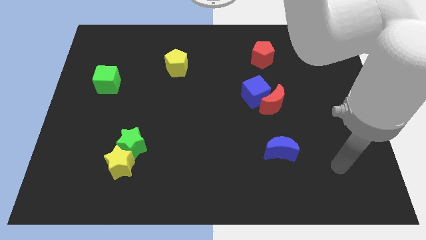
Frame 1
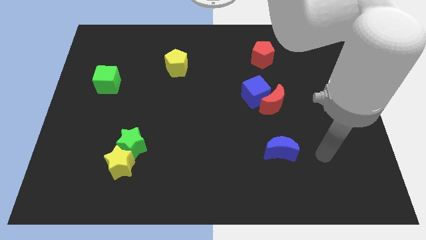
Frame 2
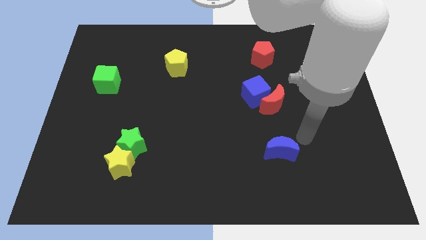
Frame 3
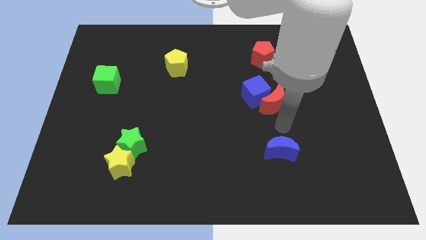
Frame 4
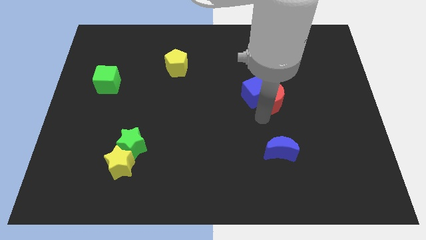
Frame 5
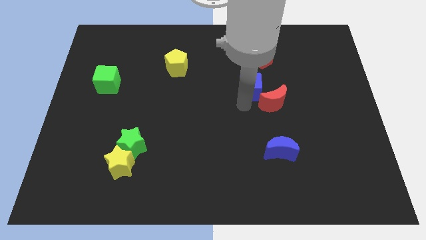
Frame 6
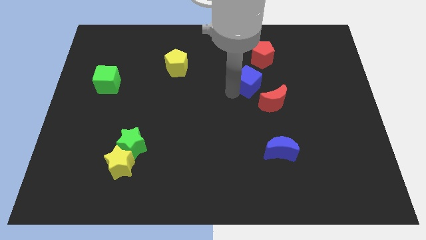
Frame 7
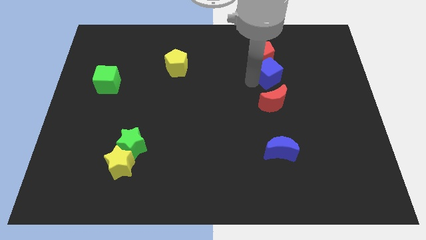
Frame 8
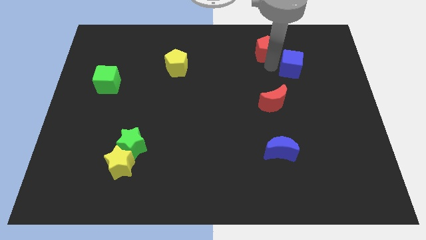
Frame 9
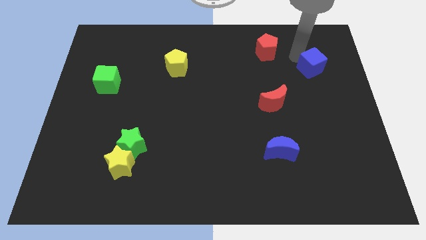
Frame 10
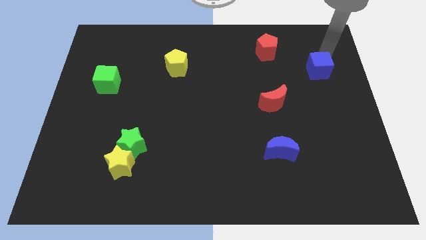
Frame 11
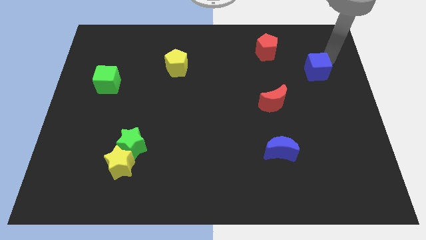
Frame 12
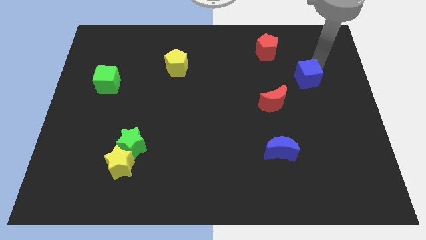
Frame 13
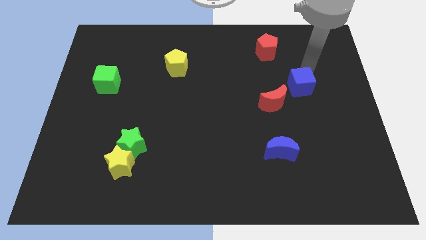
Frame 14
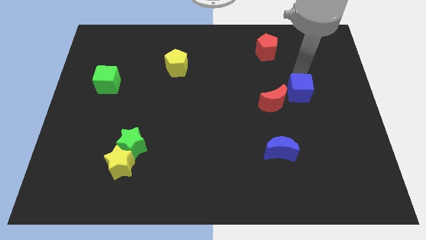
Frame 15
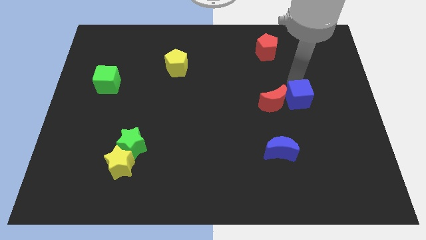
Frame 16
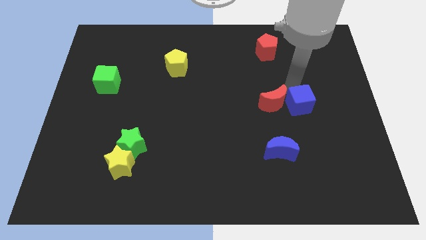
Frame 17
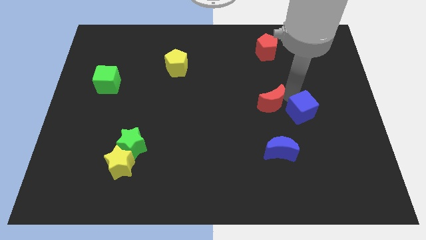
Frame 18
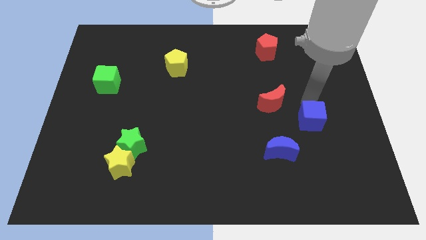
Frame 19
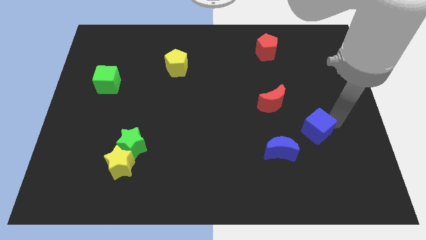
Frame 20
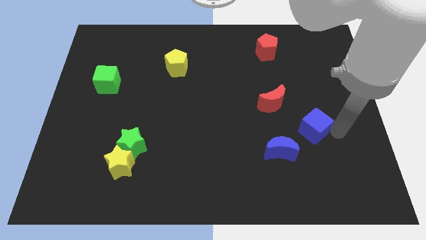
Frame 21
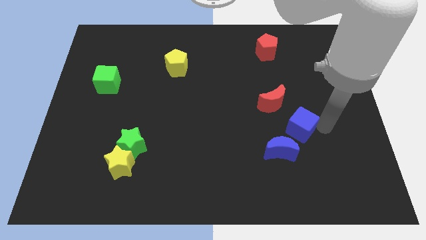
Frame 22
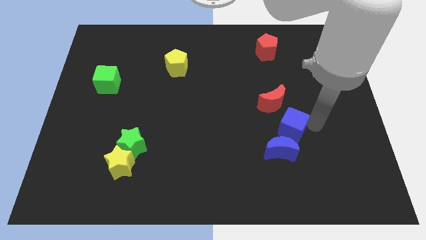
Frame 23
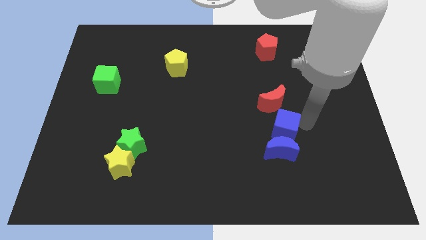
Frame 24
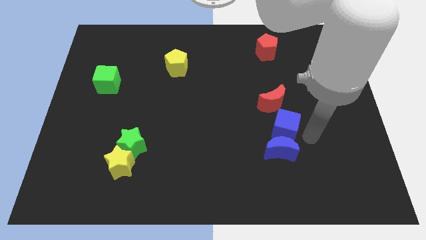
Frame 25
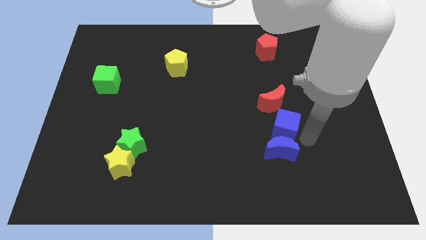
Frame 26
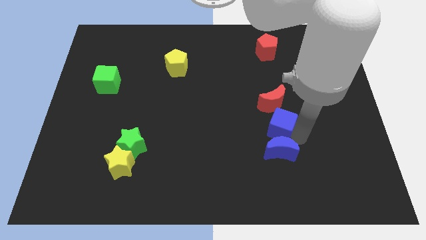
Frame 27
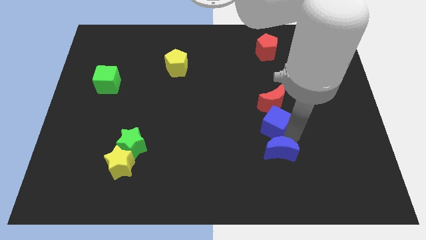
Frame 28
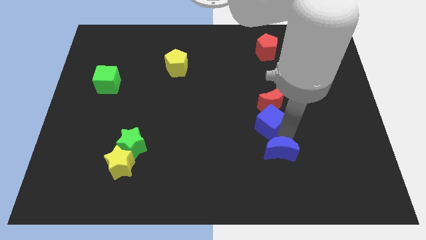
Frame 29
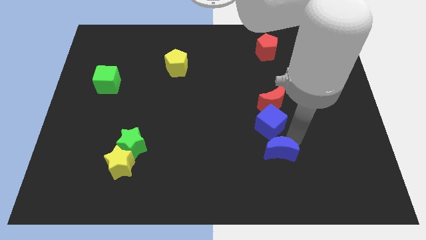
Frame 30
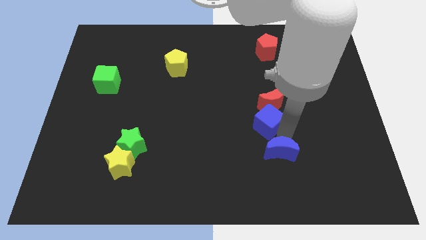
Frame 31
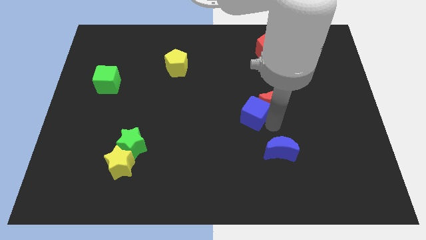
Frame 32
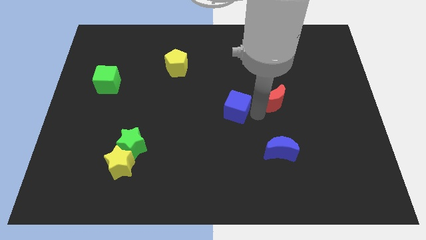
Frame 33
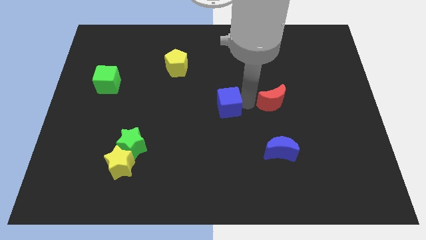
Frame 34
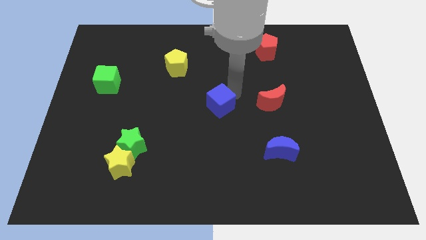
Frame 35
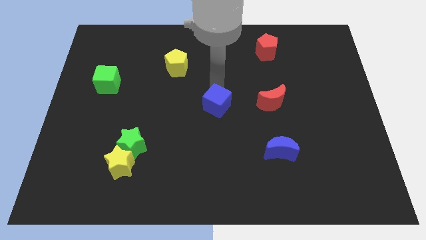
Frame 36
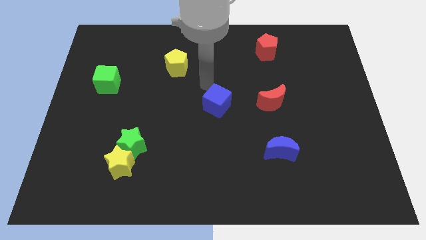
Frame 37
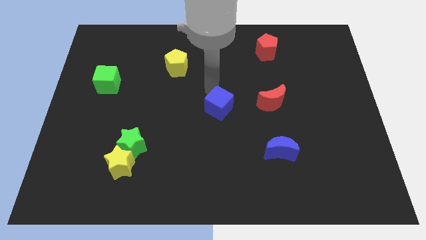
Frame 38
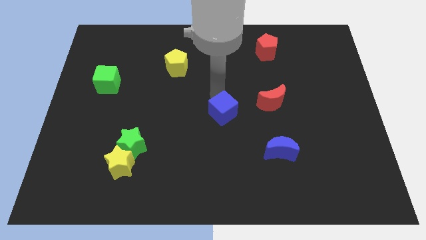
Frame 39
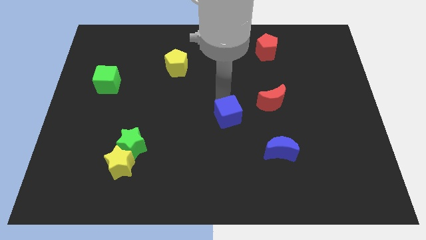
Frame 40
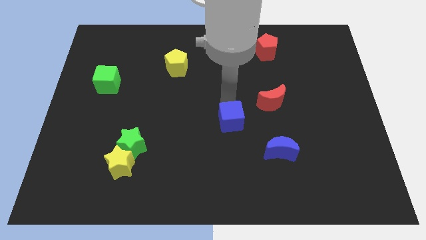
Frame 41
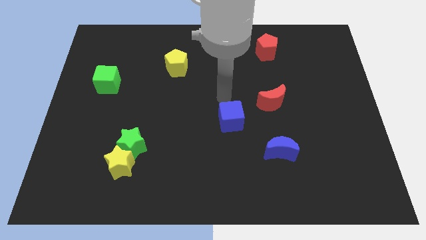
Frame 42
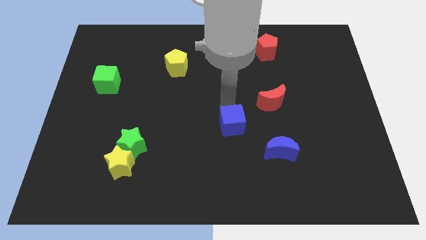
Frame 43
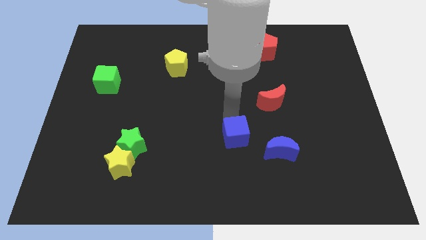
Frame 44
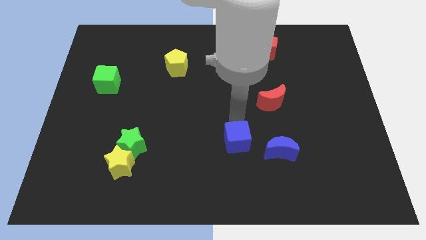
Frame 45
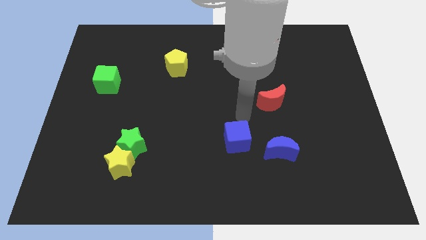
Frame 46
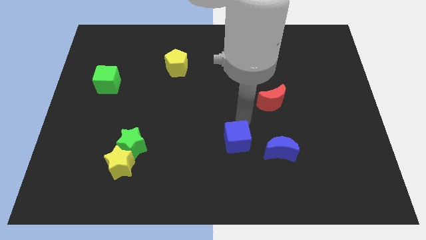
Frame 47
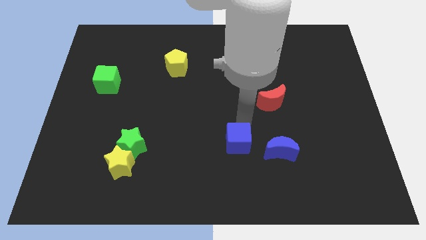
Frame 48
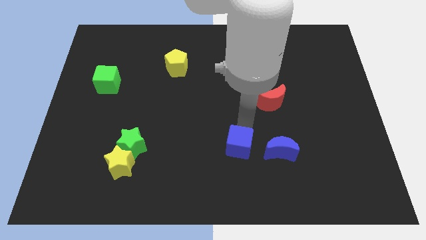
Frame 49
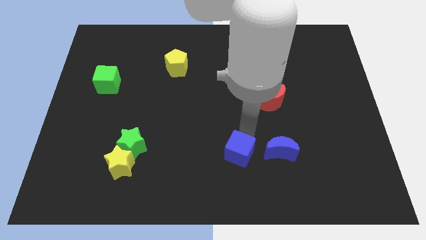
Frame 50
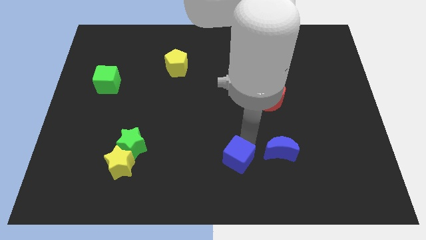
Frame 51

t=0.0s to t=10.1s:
push the blue cube to the bottom side
